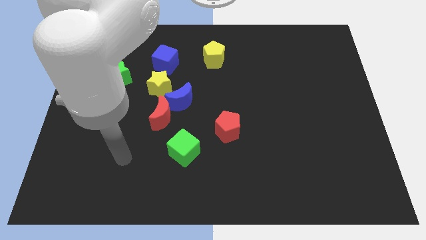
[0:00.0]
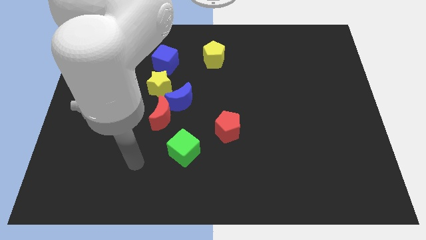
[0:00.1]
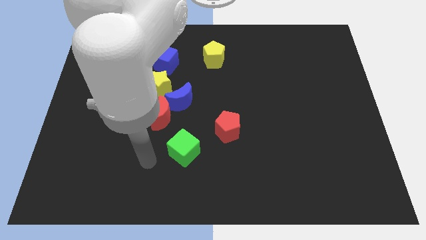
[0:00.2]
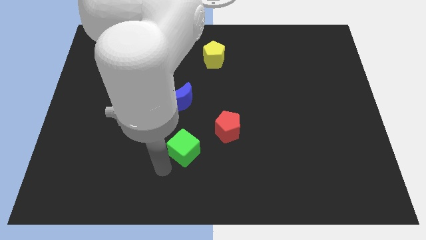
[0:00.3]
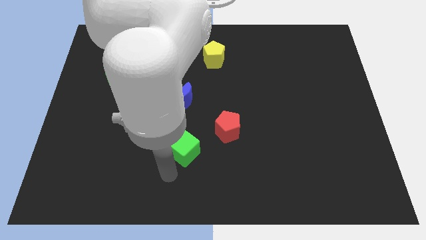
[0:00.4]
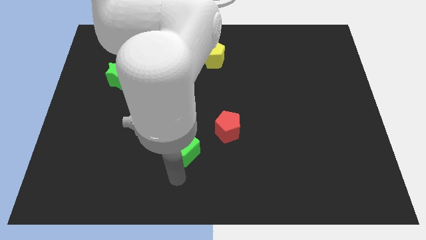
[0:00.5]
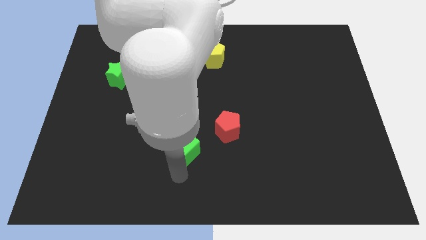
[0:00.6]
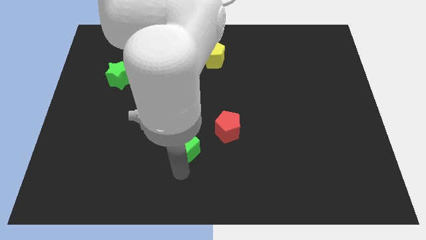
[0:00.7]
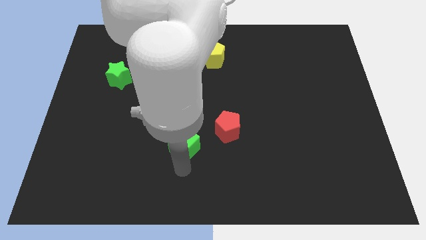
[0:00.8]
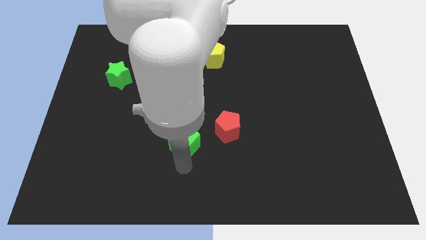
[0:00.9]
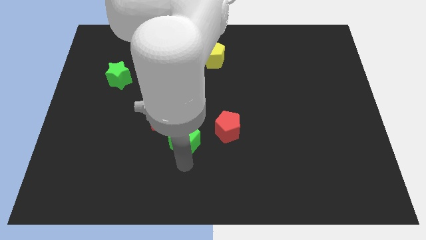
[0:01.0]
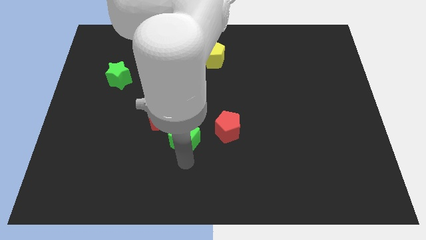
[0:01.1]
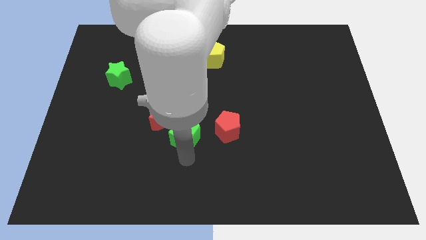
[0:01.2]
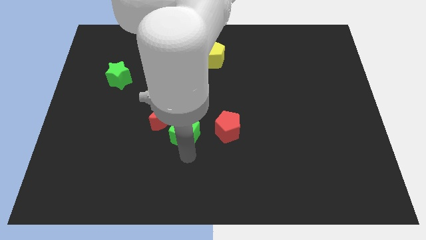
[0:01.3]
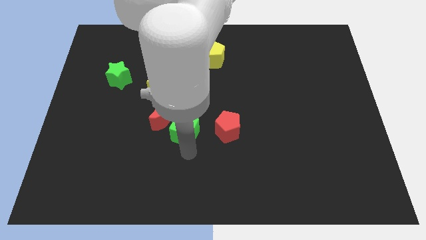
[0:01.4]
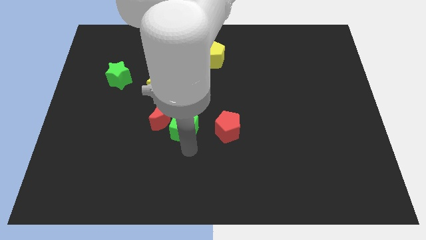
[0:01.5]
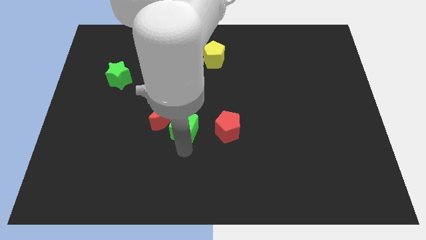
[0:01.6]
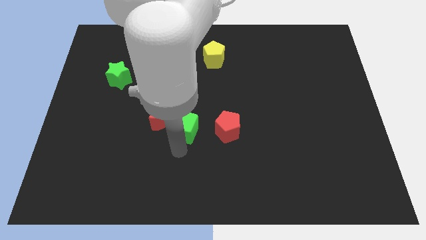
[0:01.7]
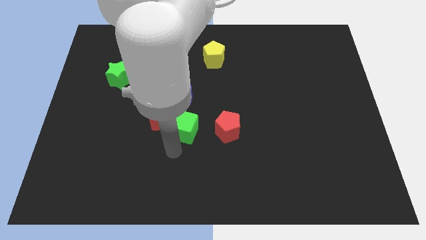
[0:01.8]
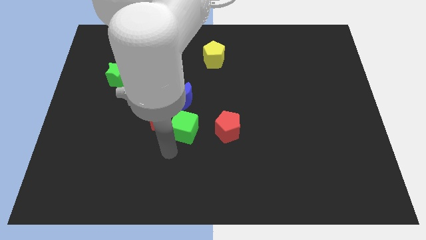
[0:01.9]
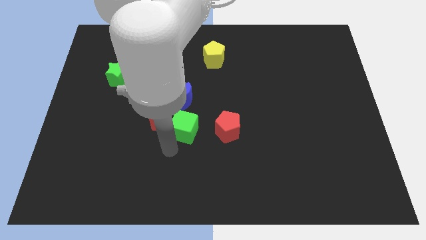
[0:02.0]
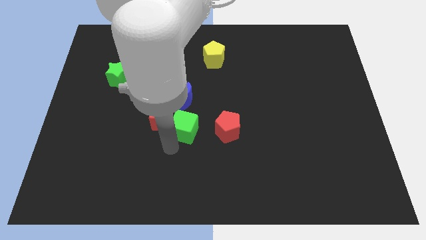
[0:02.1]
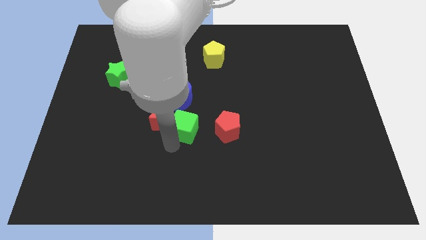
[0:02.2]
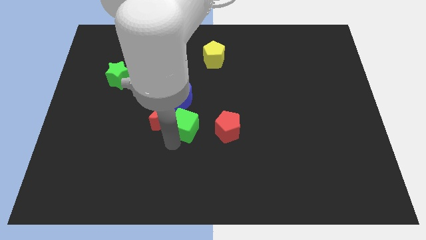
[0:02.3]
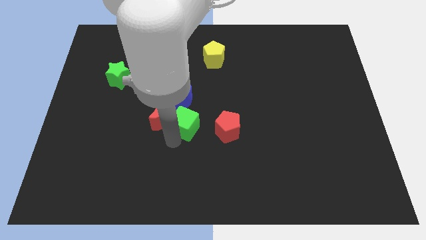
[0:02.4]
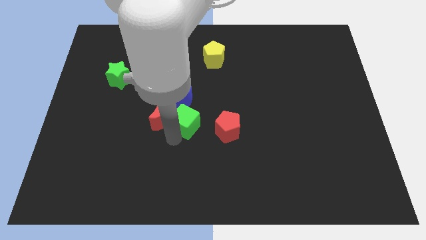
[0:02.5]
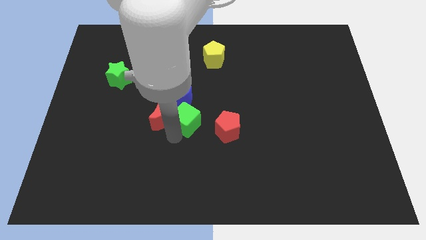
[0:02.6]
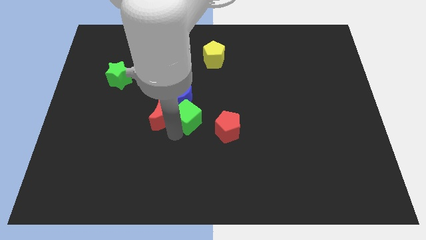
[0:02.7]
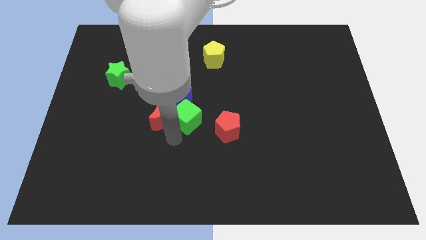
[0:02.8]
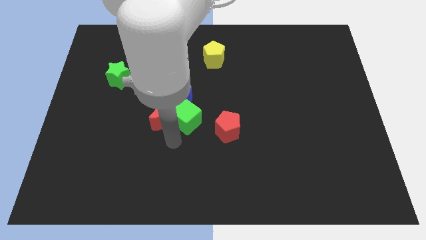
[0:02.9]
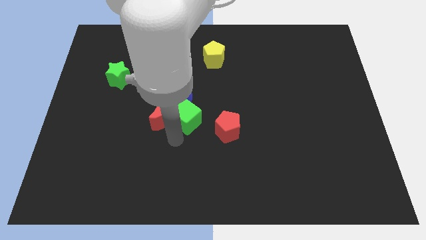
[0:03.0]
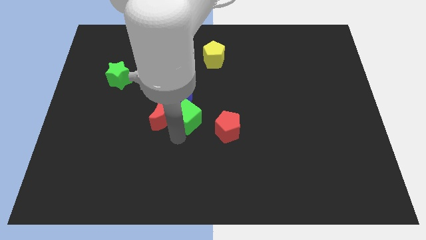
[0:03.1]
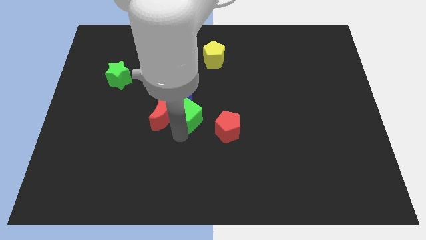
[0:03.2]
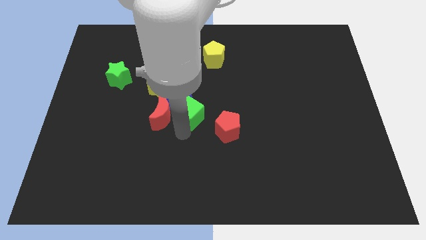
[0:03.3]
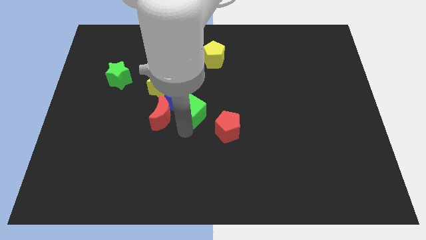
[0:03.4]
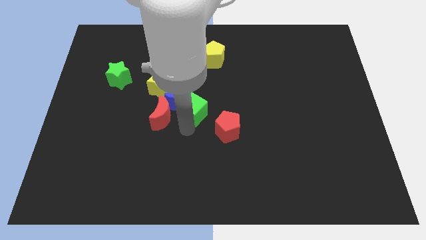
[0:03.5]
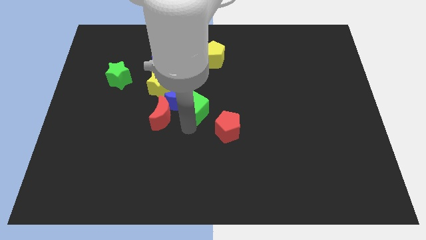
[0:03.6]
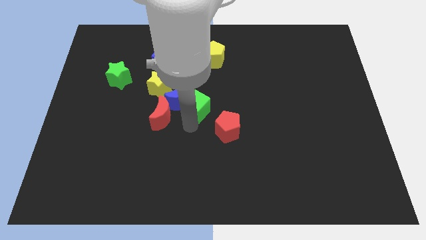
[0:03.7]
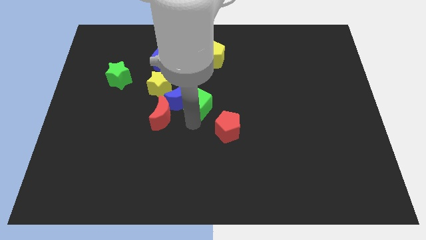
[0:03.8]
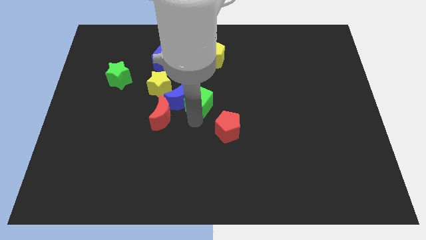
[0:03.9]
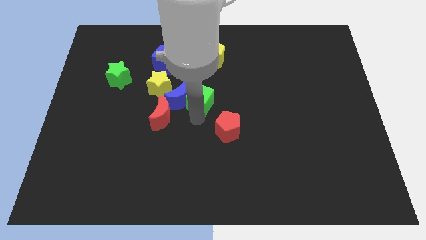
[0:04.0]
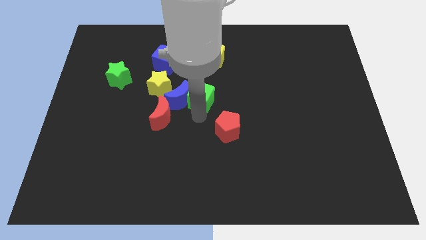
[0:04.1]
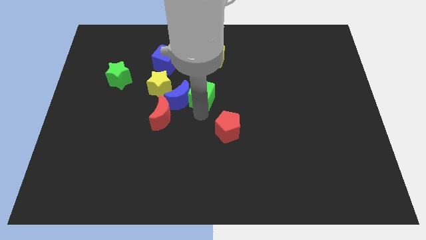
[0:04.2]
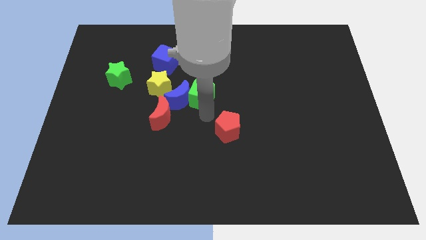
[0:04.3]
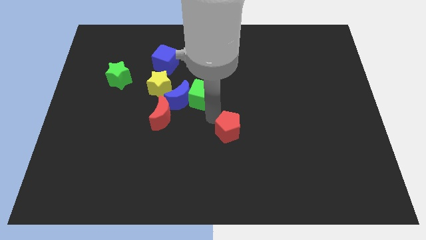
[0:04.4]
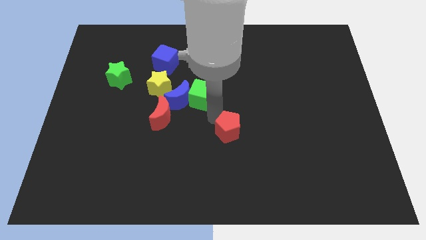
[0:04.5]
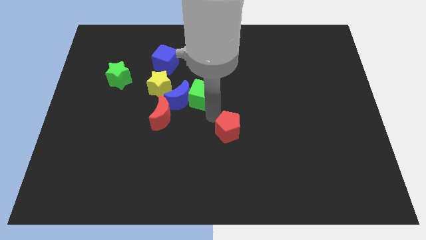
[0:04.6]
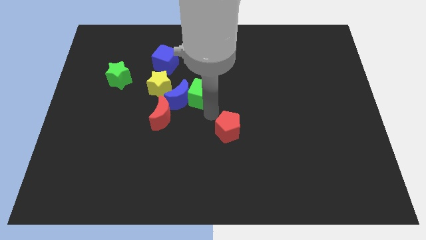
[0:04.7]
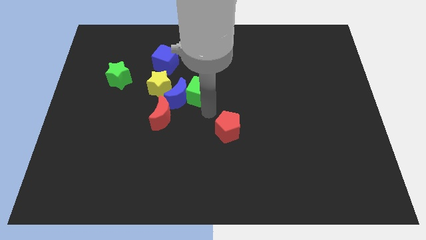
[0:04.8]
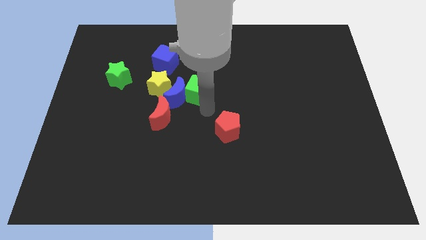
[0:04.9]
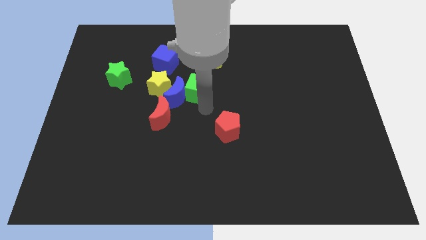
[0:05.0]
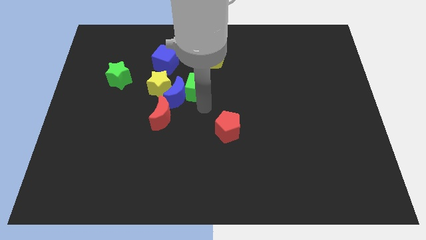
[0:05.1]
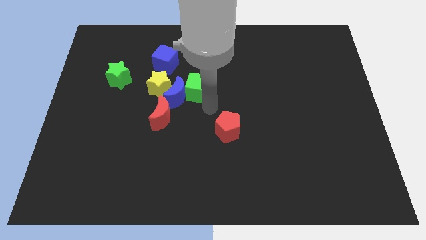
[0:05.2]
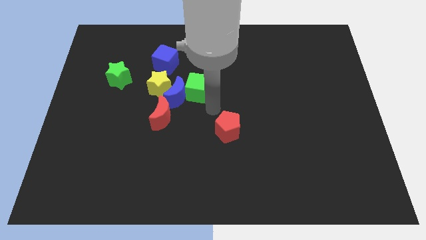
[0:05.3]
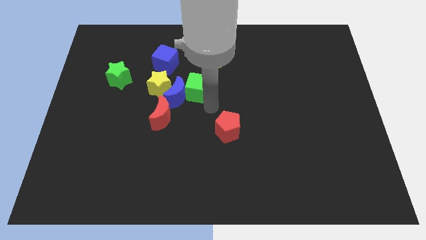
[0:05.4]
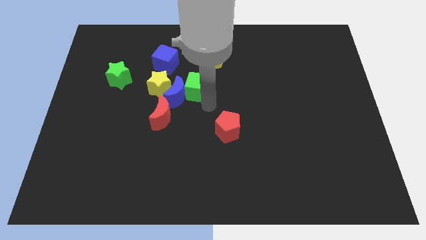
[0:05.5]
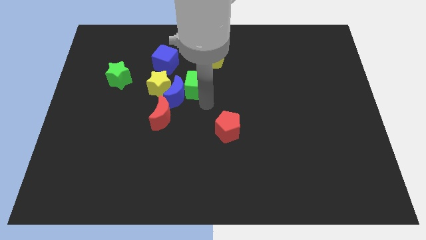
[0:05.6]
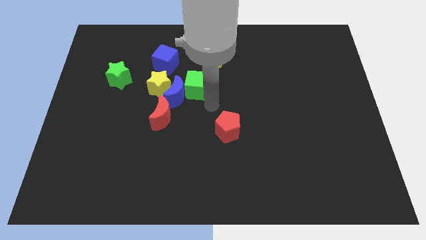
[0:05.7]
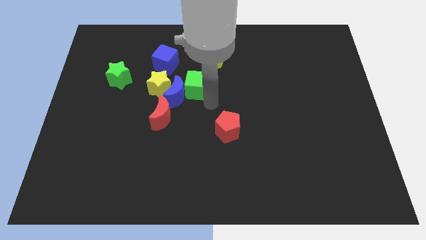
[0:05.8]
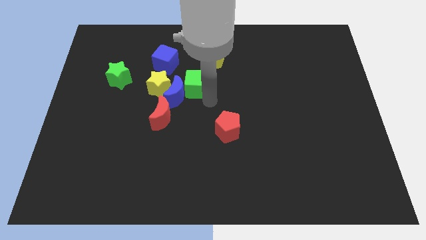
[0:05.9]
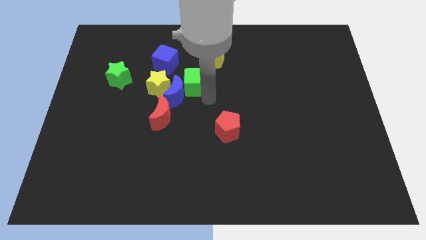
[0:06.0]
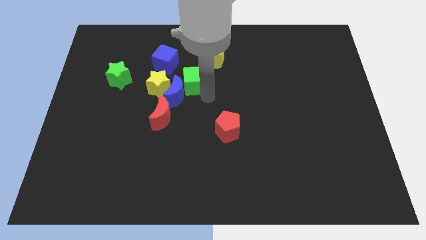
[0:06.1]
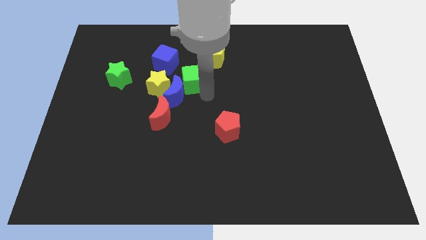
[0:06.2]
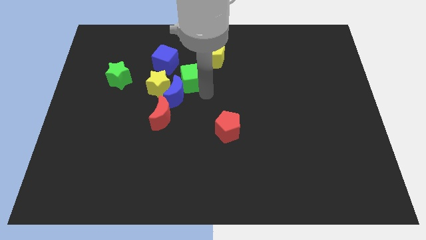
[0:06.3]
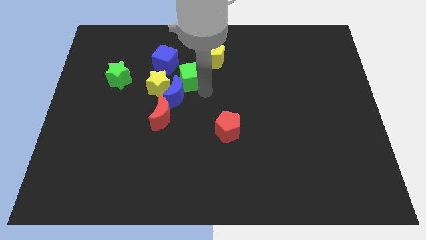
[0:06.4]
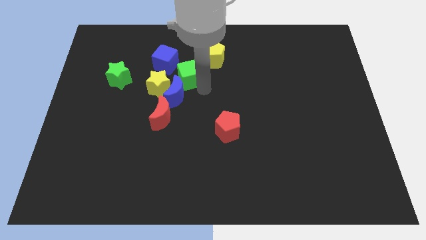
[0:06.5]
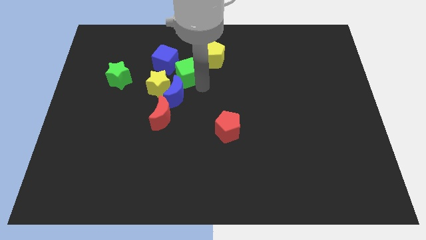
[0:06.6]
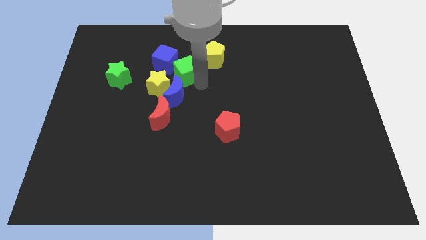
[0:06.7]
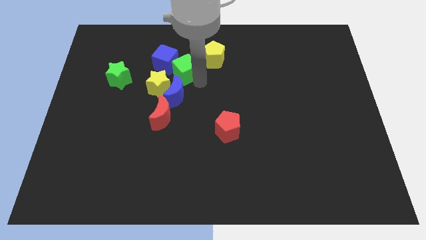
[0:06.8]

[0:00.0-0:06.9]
move the green cube towards the blue cube
